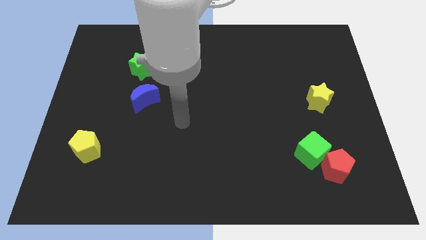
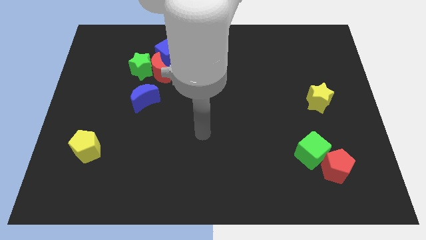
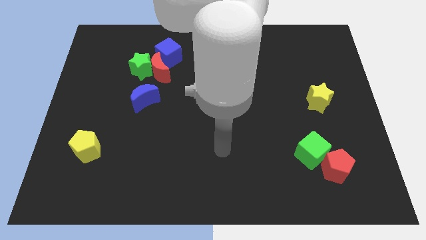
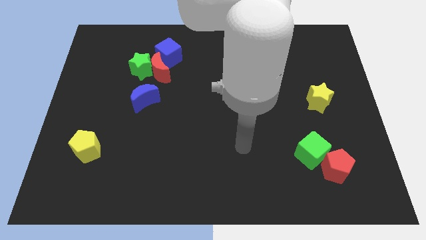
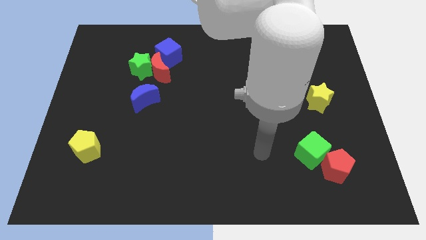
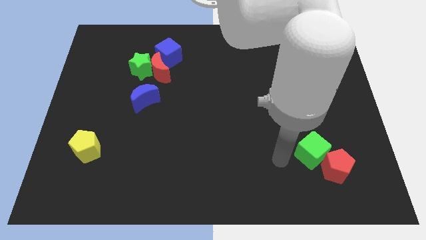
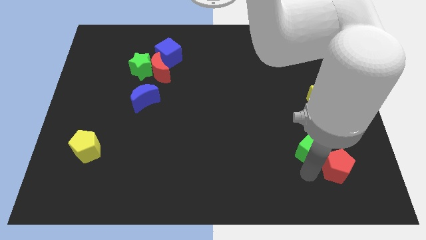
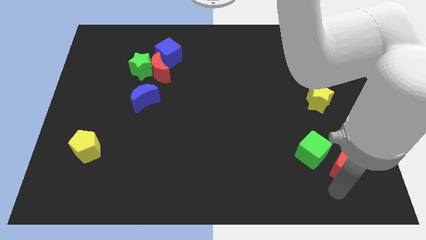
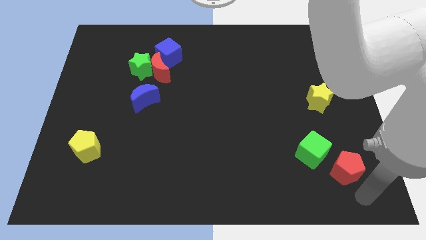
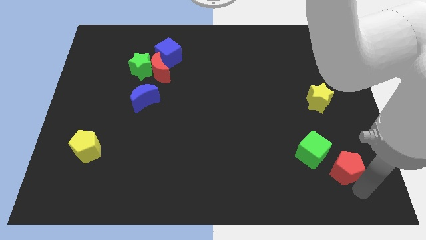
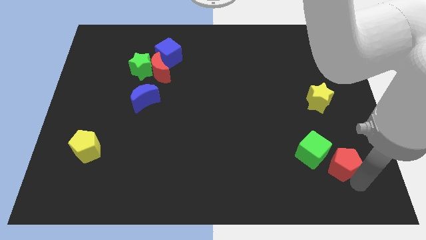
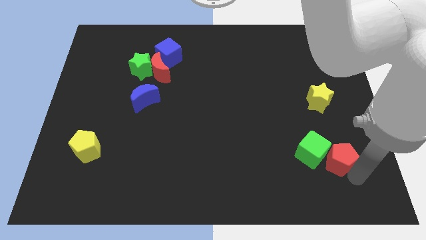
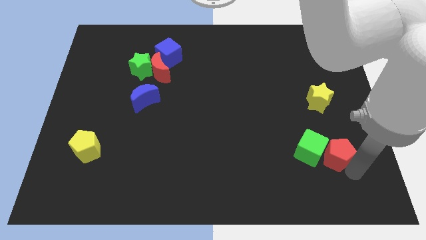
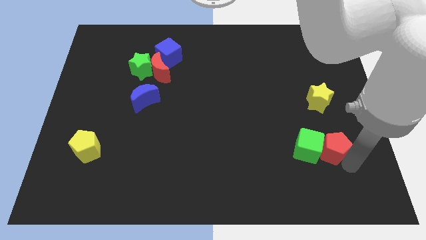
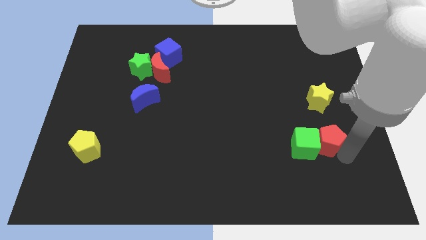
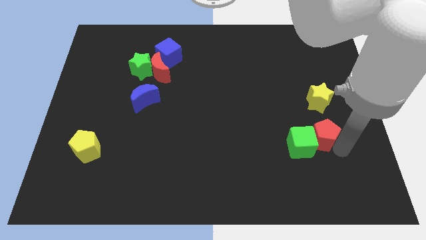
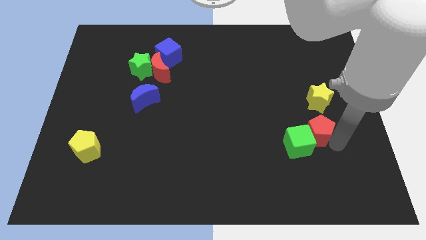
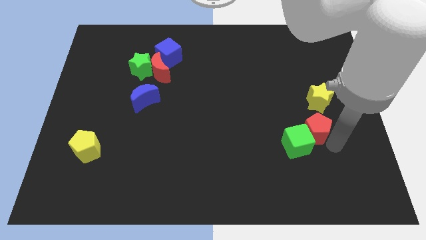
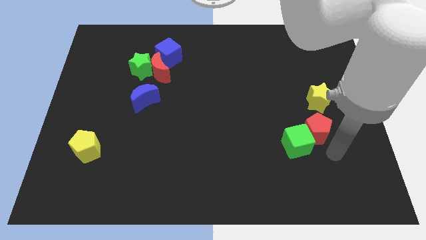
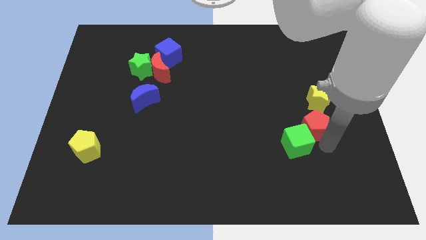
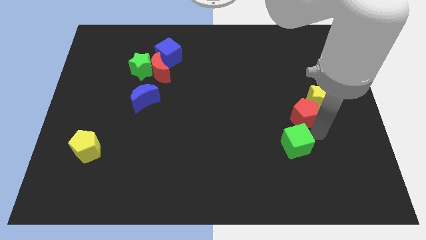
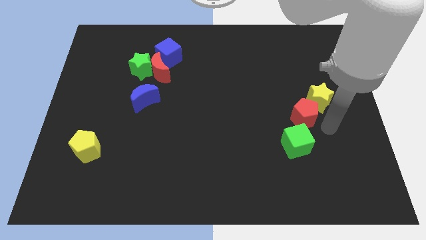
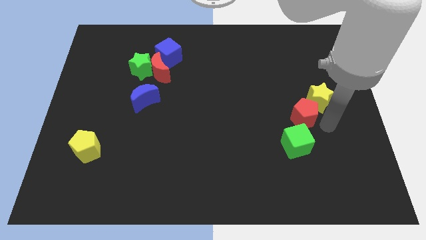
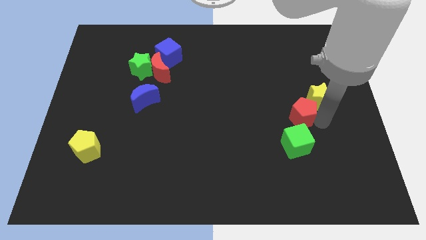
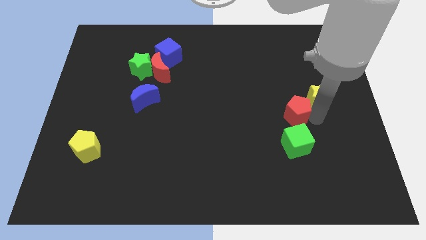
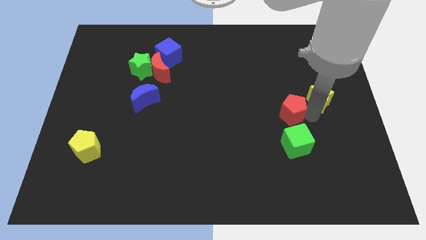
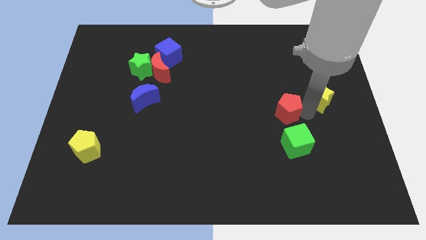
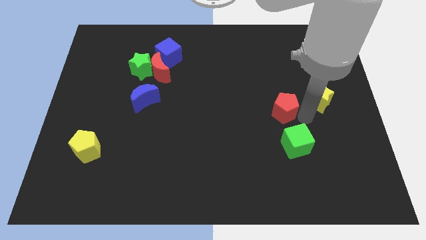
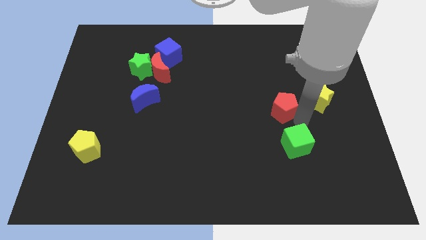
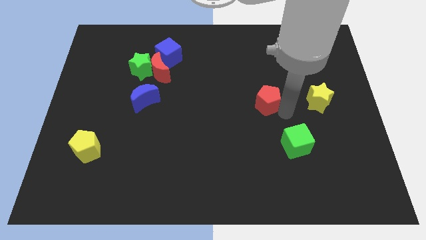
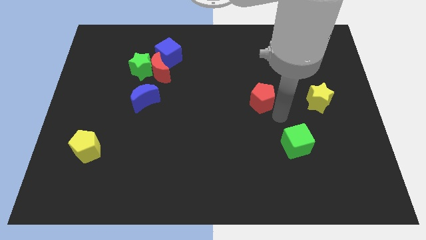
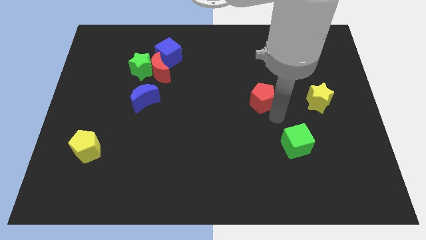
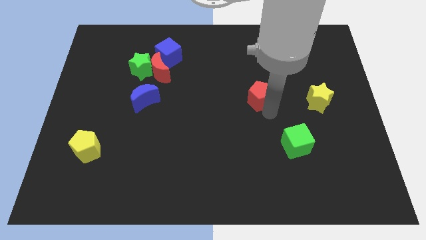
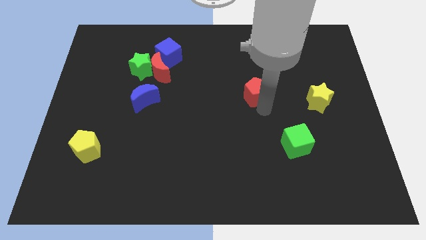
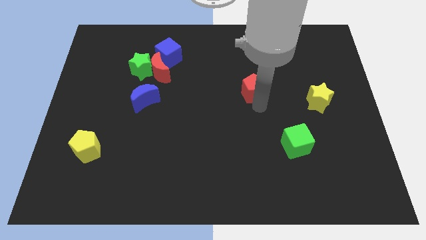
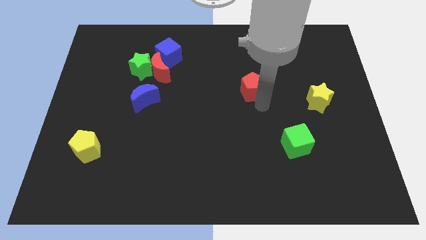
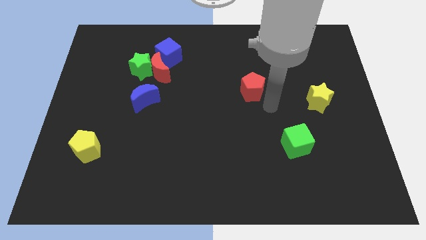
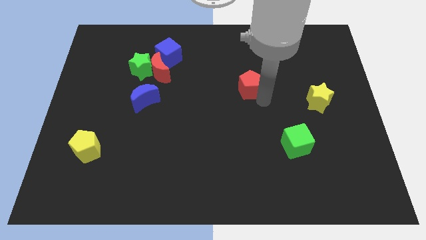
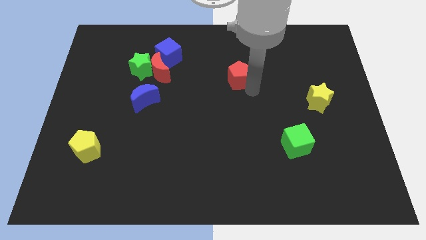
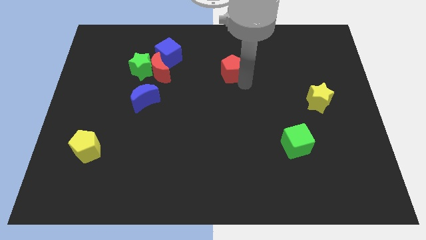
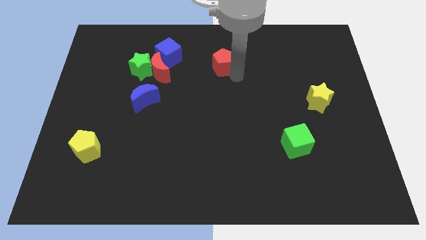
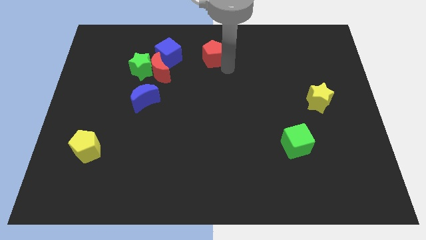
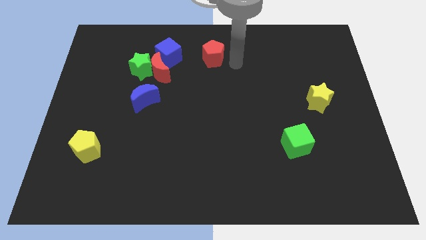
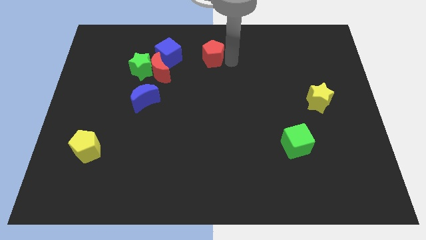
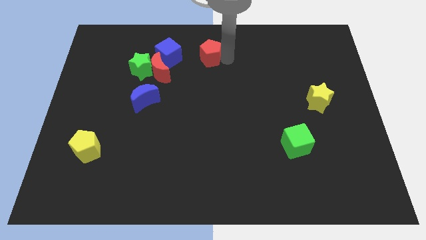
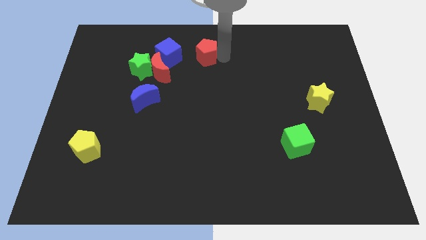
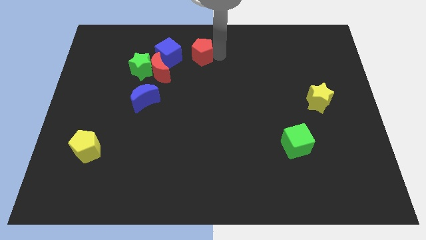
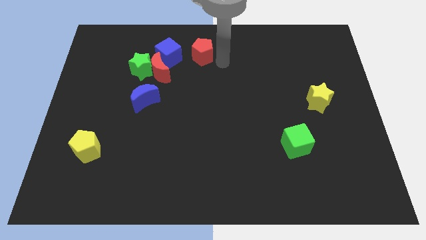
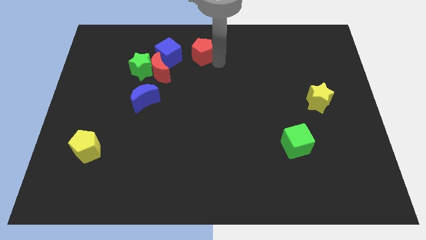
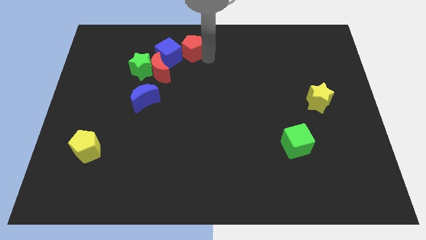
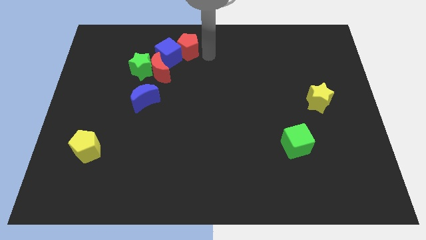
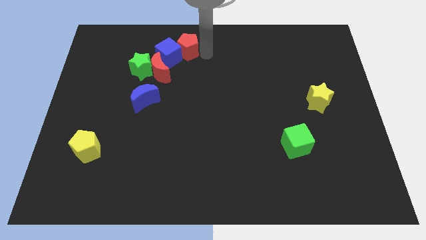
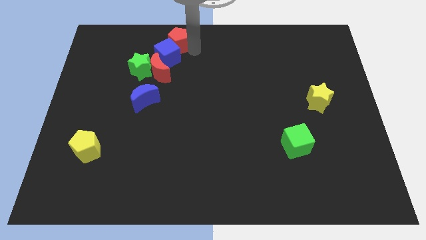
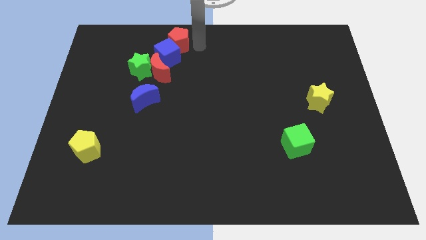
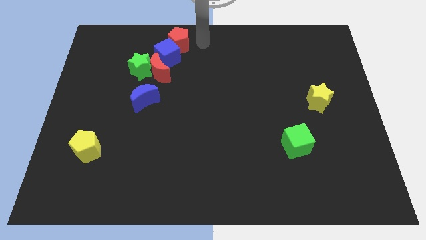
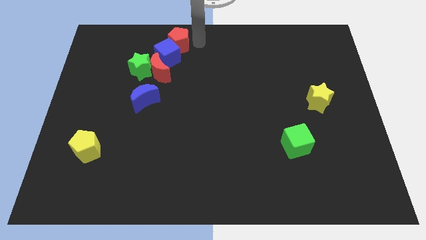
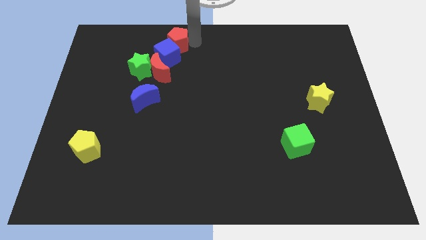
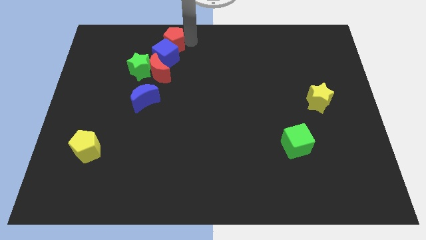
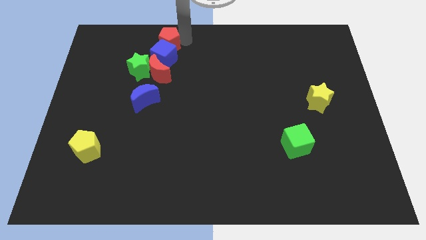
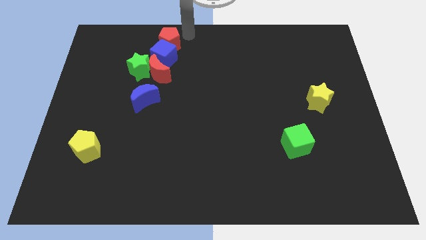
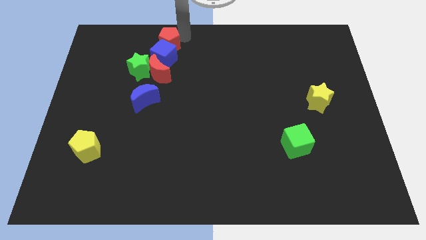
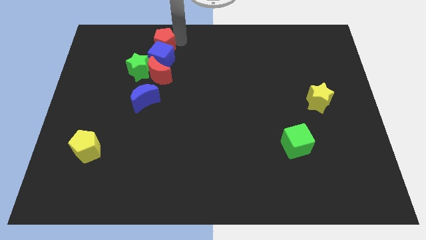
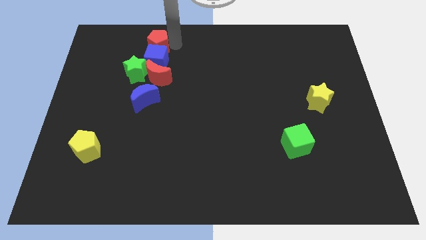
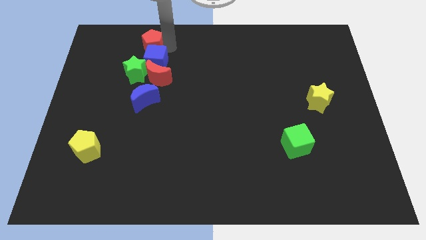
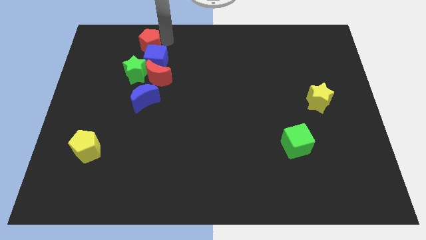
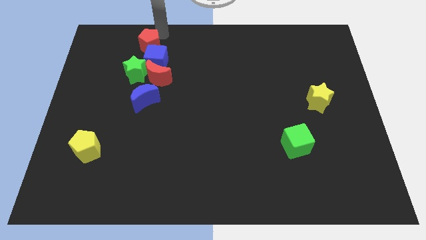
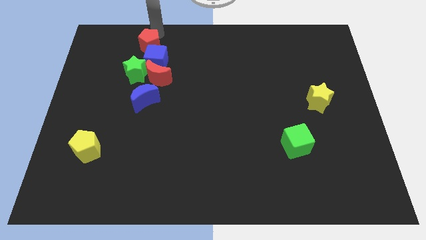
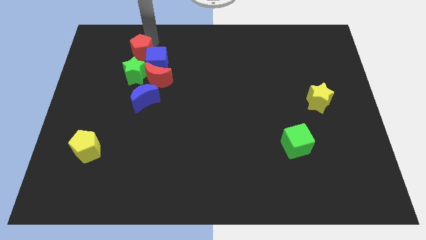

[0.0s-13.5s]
push the red pentagon to the top left of the red moon
